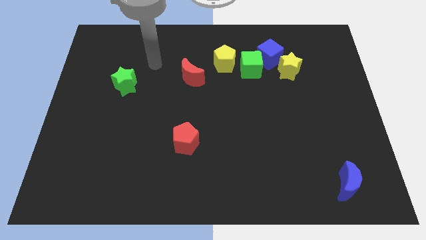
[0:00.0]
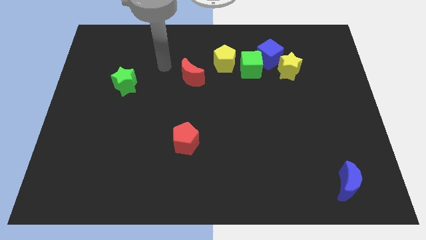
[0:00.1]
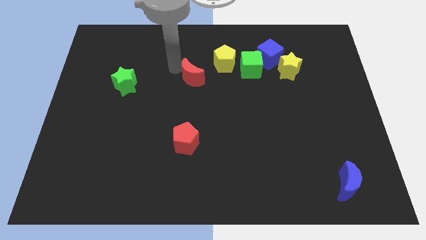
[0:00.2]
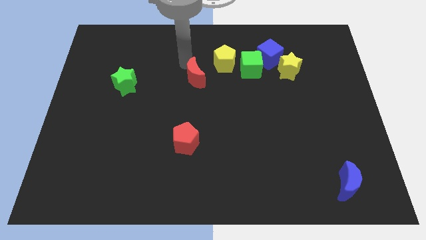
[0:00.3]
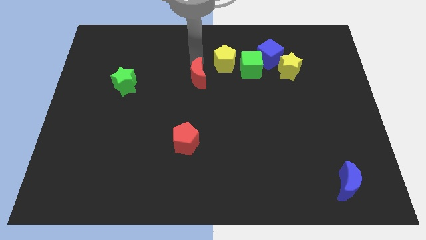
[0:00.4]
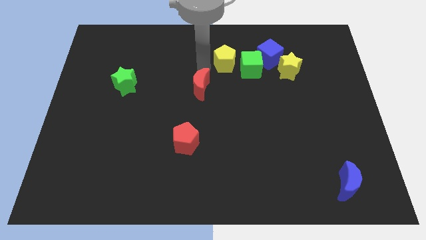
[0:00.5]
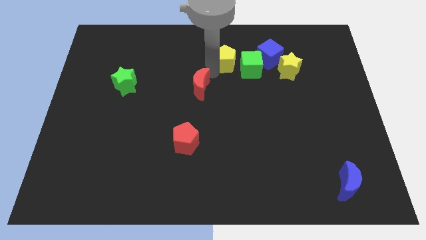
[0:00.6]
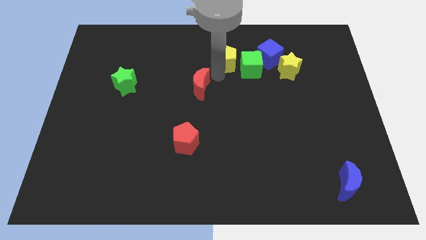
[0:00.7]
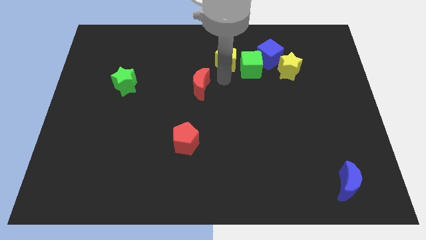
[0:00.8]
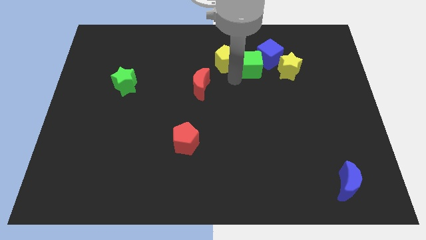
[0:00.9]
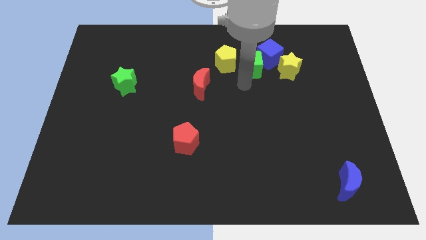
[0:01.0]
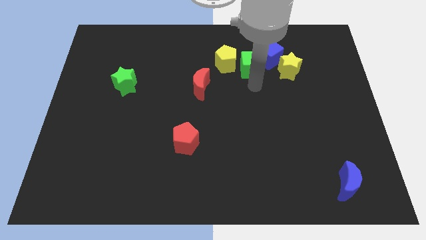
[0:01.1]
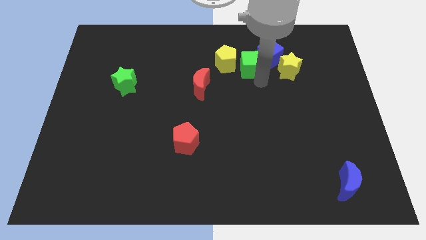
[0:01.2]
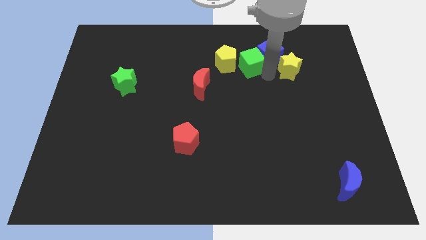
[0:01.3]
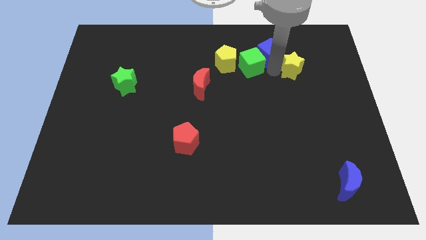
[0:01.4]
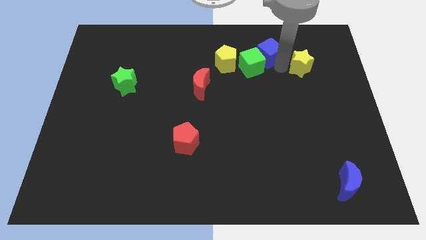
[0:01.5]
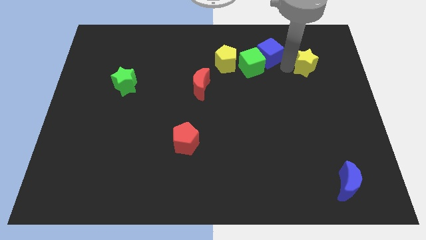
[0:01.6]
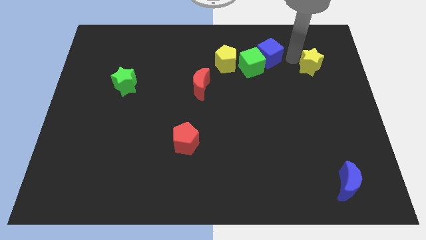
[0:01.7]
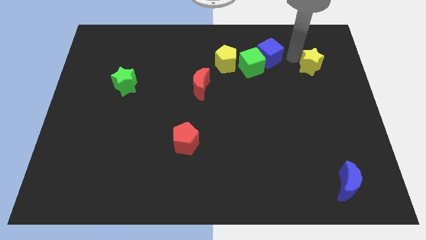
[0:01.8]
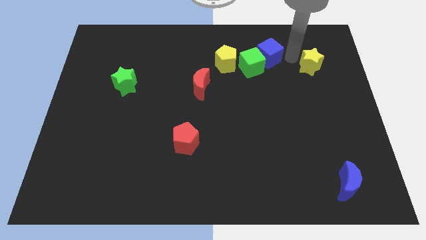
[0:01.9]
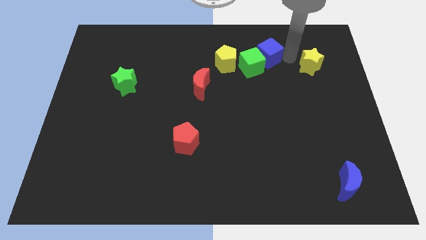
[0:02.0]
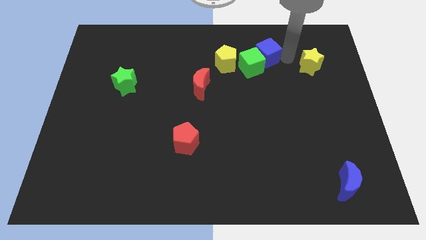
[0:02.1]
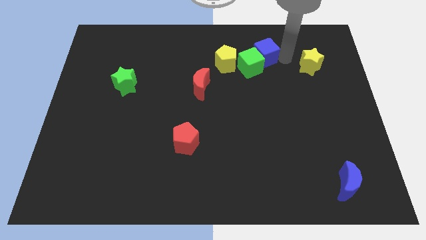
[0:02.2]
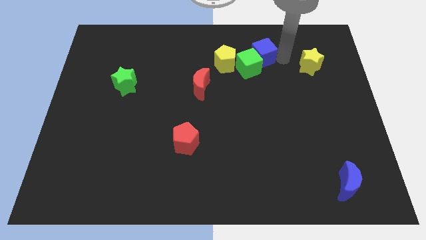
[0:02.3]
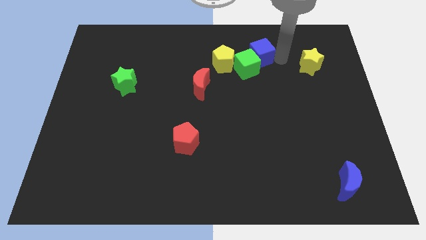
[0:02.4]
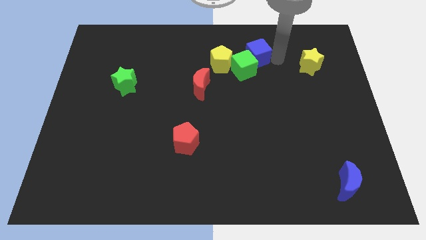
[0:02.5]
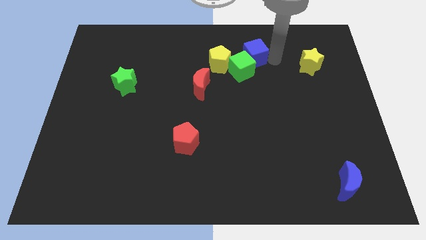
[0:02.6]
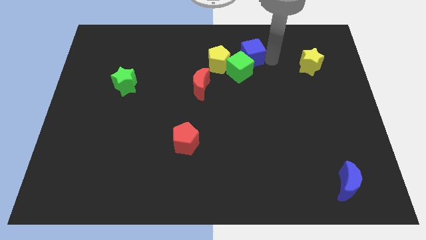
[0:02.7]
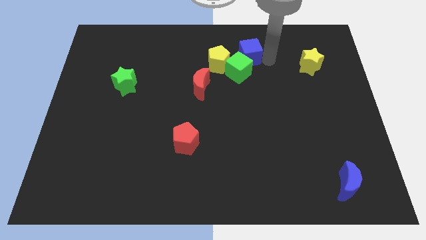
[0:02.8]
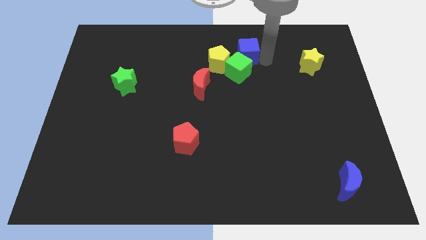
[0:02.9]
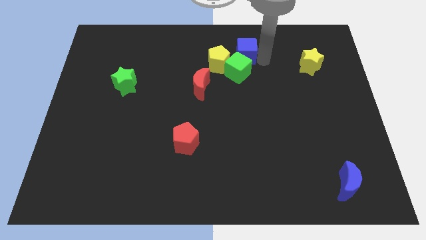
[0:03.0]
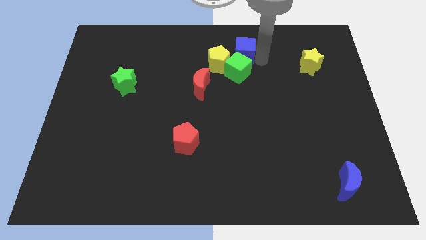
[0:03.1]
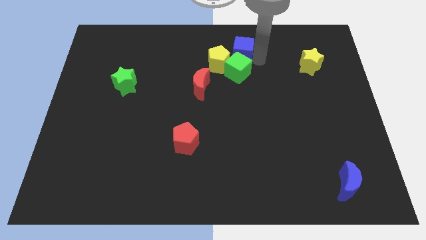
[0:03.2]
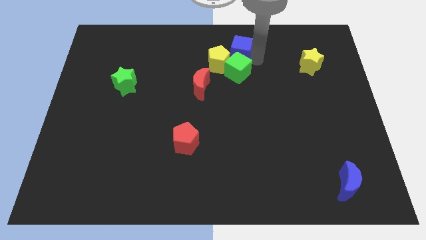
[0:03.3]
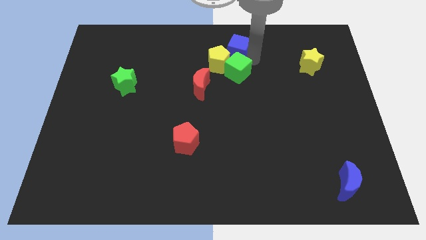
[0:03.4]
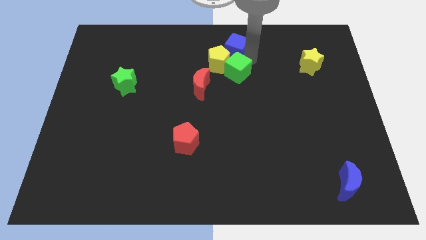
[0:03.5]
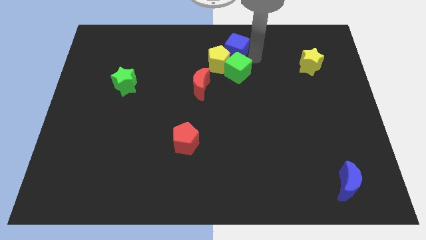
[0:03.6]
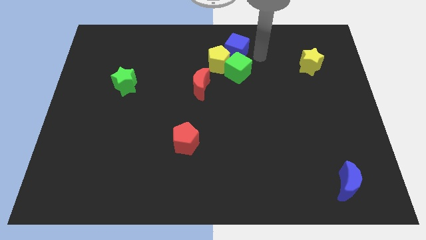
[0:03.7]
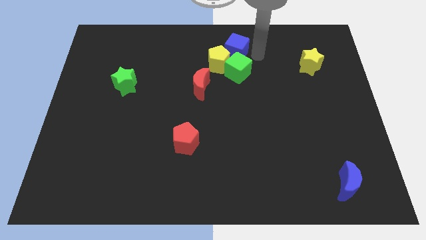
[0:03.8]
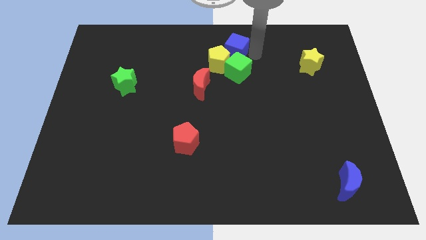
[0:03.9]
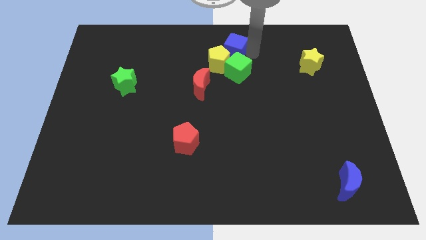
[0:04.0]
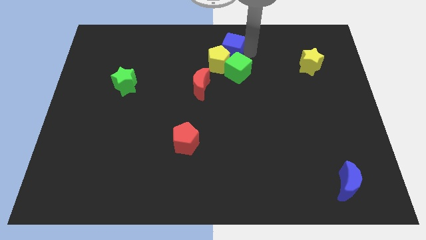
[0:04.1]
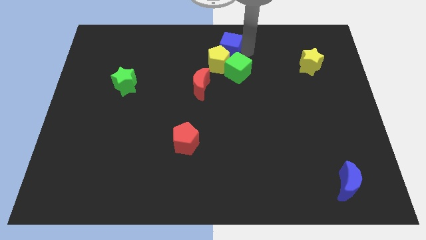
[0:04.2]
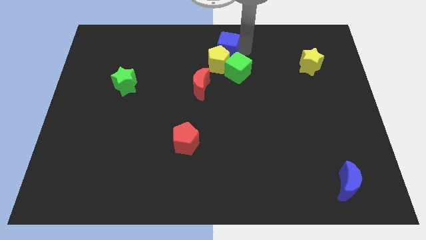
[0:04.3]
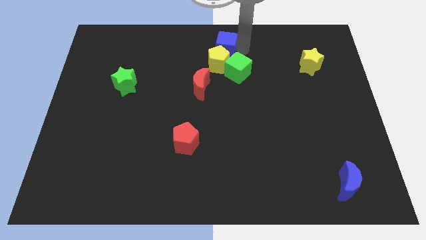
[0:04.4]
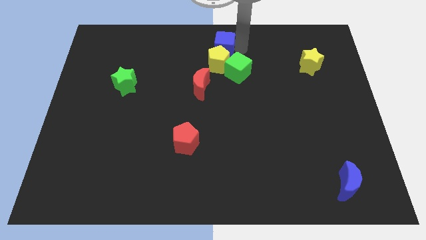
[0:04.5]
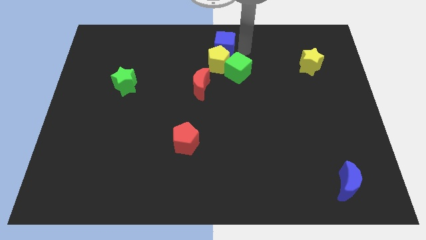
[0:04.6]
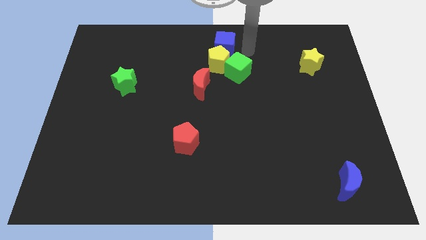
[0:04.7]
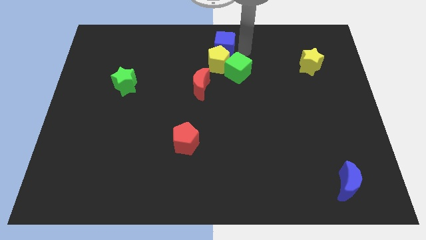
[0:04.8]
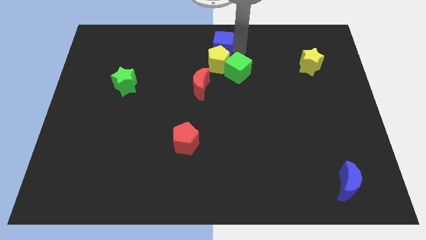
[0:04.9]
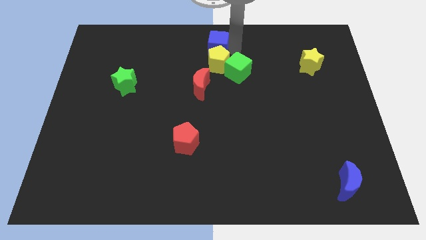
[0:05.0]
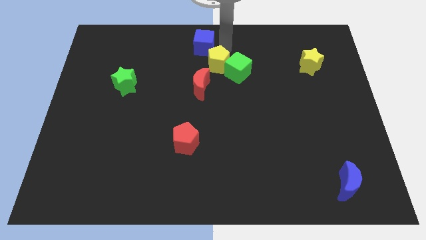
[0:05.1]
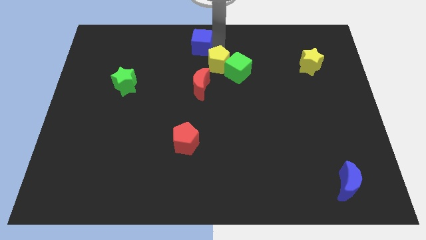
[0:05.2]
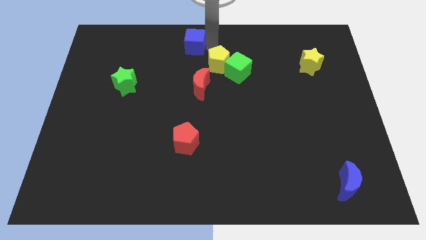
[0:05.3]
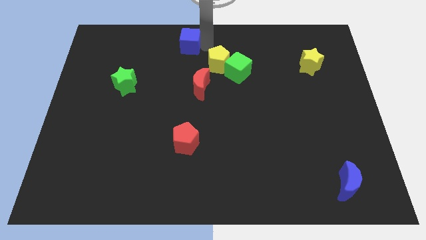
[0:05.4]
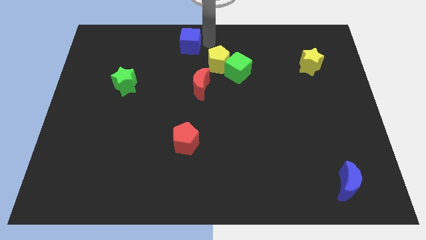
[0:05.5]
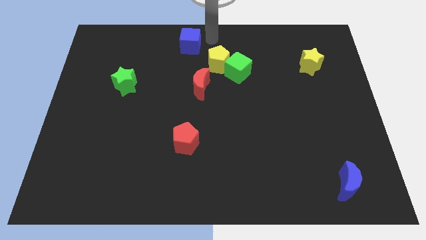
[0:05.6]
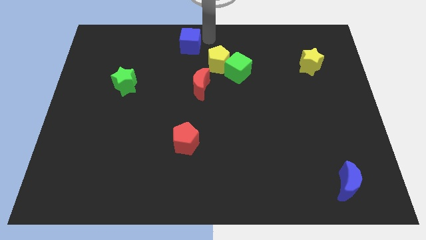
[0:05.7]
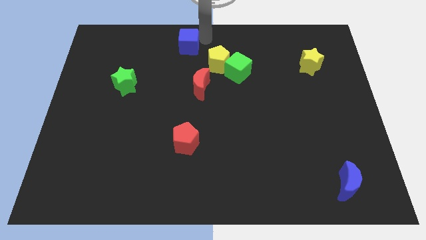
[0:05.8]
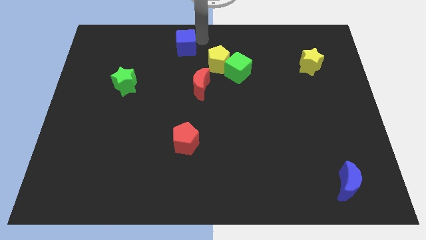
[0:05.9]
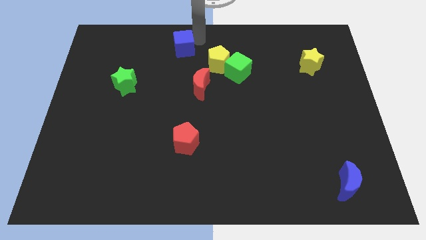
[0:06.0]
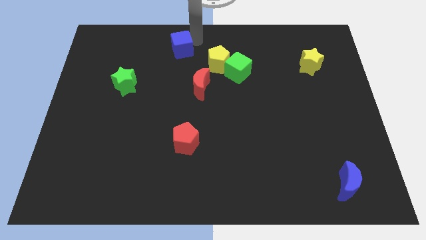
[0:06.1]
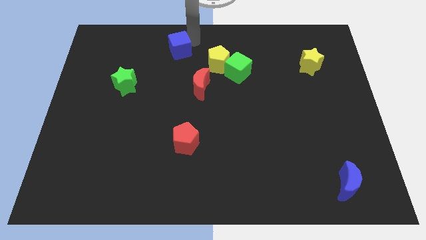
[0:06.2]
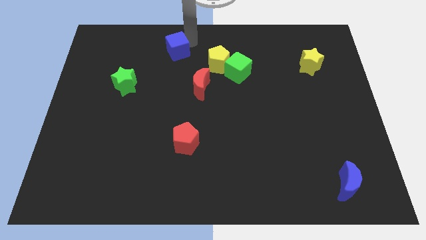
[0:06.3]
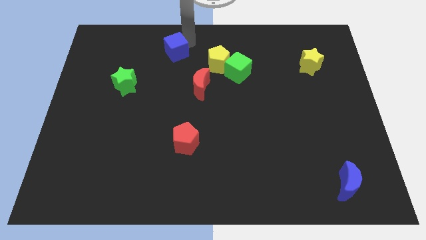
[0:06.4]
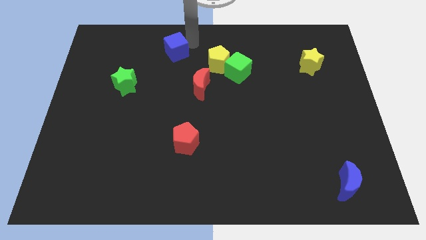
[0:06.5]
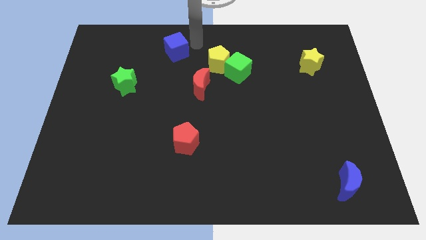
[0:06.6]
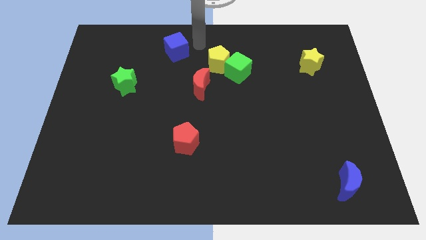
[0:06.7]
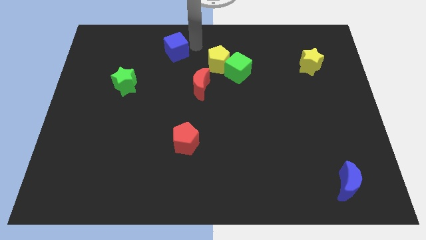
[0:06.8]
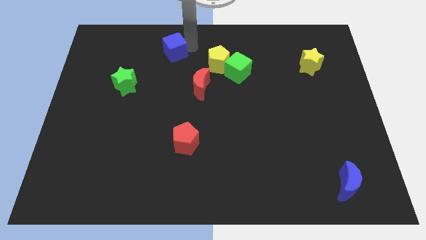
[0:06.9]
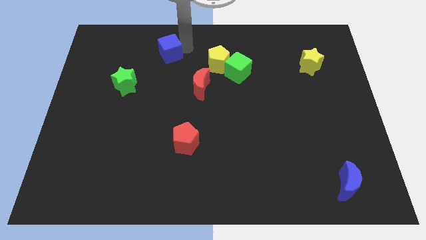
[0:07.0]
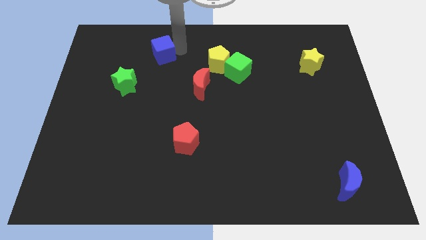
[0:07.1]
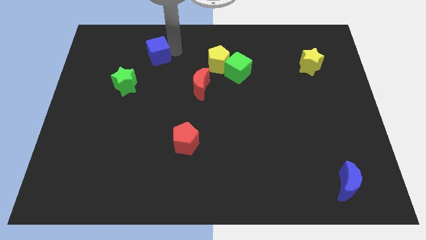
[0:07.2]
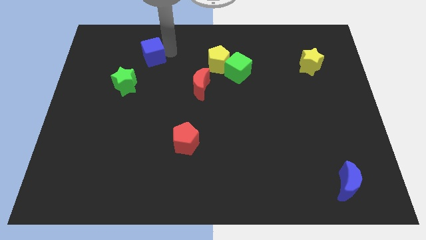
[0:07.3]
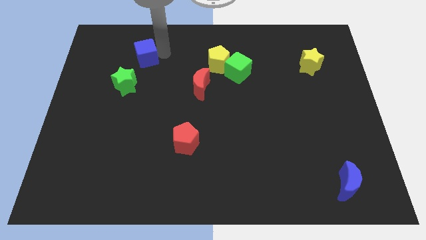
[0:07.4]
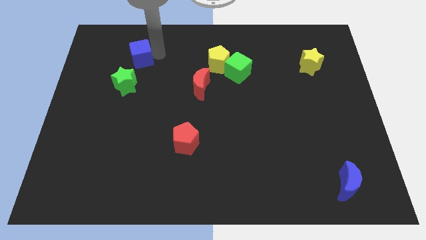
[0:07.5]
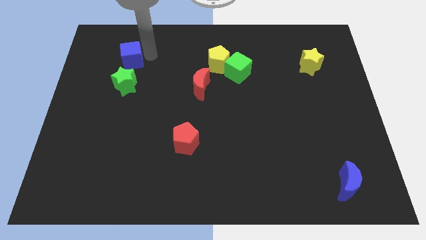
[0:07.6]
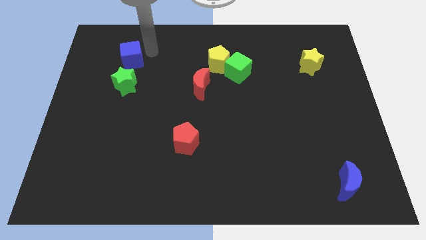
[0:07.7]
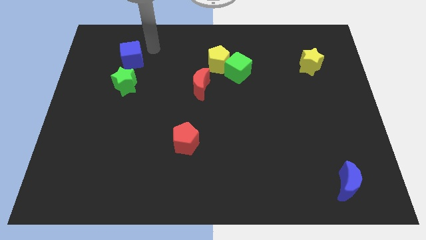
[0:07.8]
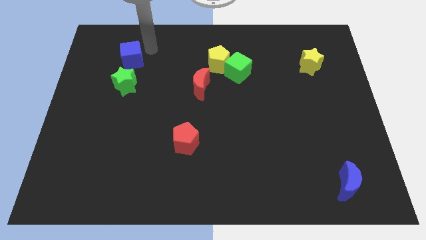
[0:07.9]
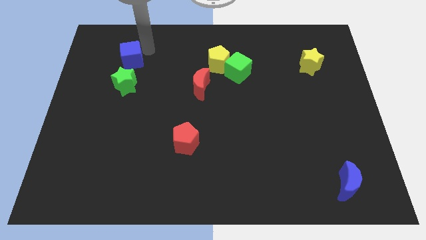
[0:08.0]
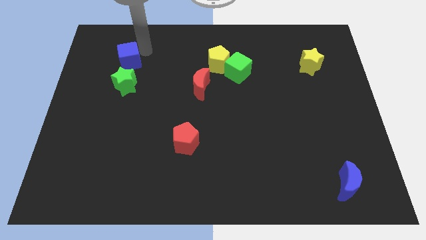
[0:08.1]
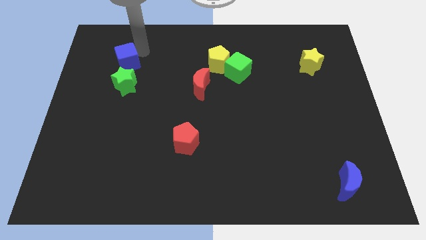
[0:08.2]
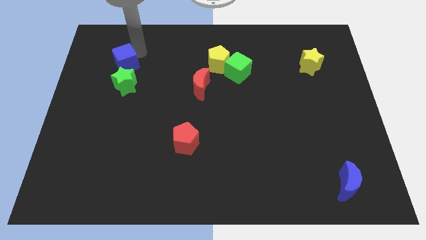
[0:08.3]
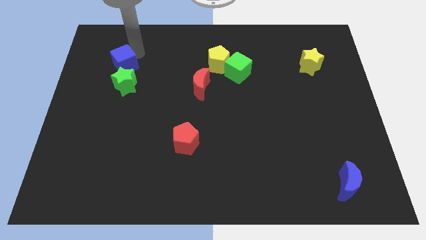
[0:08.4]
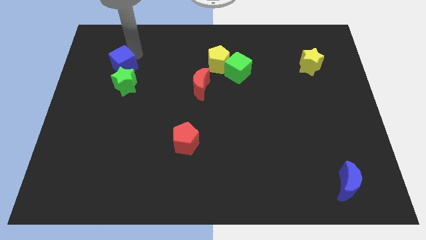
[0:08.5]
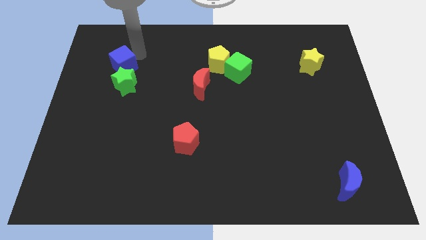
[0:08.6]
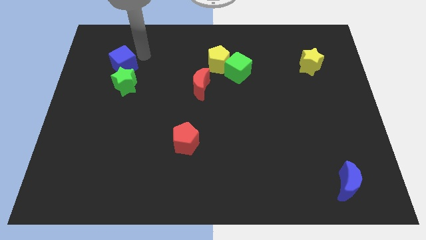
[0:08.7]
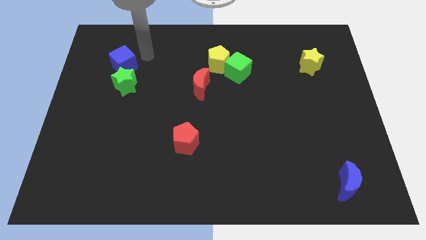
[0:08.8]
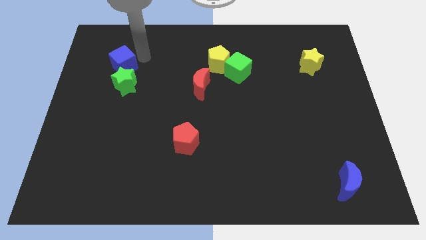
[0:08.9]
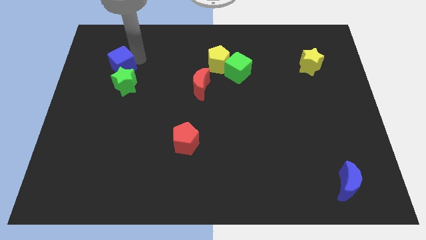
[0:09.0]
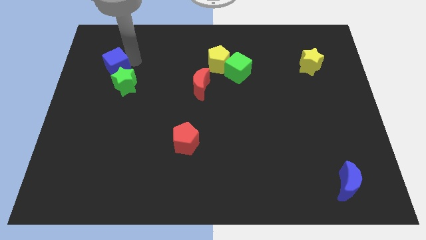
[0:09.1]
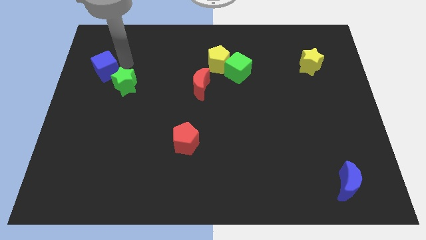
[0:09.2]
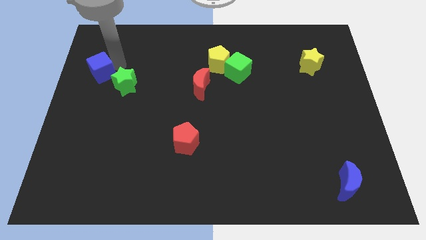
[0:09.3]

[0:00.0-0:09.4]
push the blue cube to the center left
